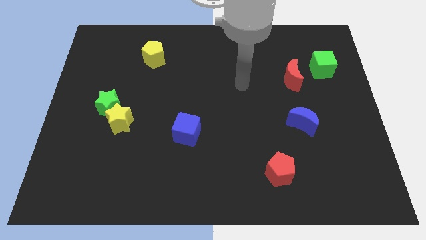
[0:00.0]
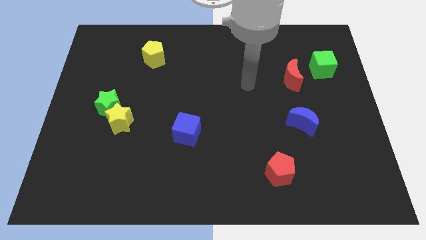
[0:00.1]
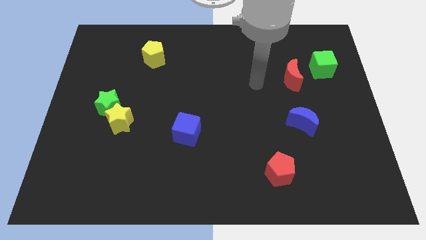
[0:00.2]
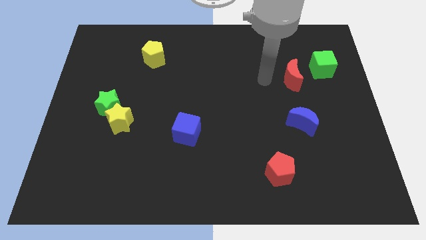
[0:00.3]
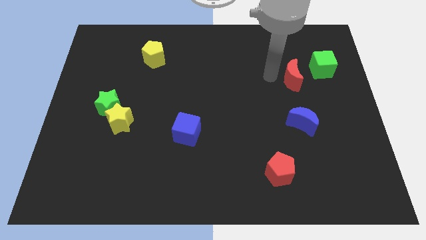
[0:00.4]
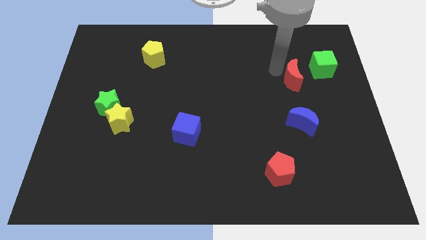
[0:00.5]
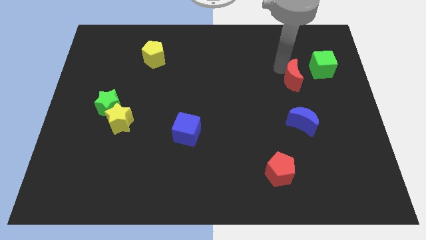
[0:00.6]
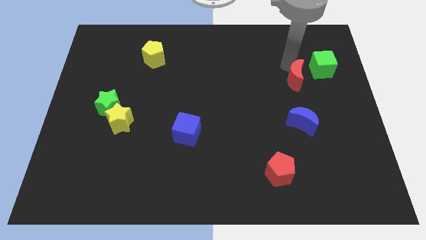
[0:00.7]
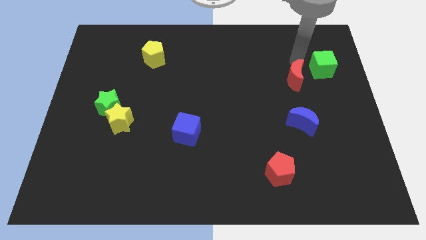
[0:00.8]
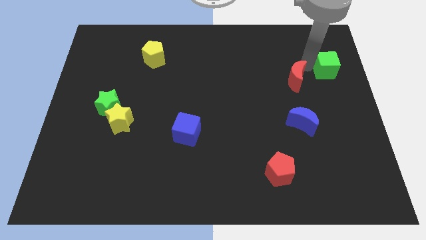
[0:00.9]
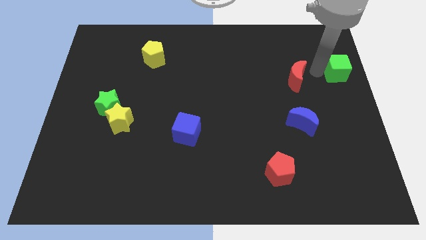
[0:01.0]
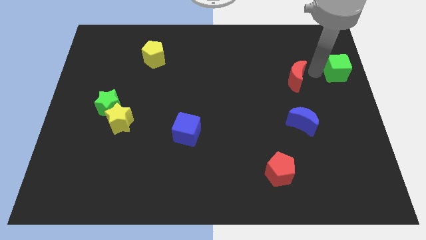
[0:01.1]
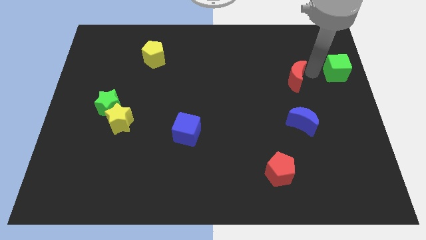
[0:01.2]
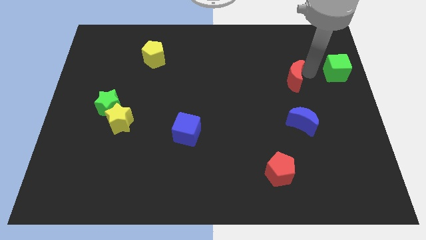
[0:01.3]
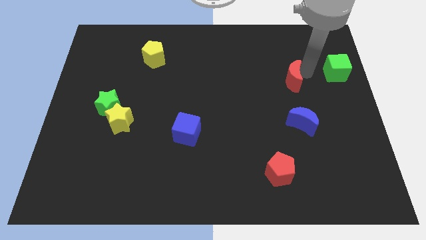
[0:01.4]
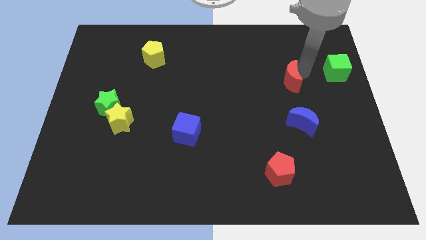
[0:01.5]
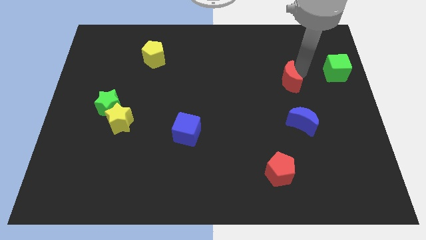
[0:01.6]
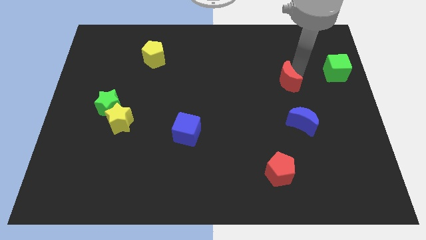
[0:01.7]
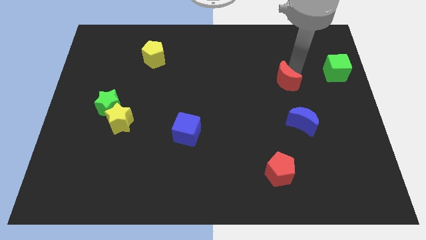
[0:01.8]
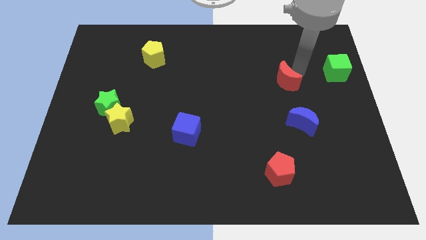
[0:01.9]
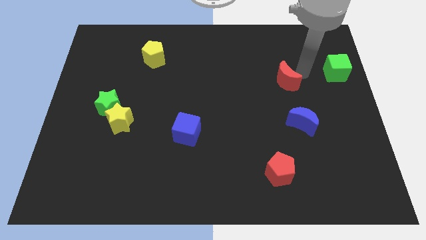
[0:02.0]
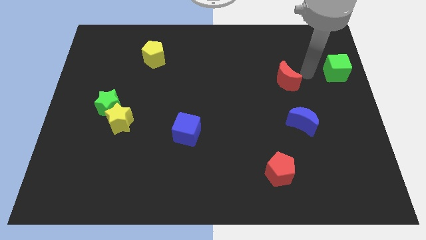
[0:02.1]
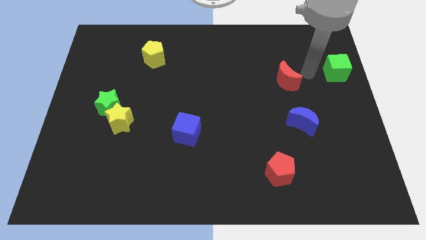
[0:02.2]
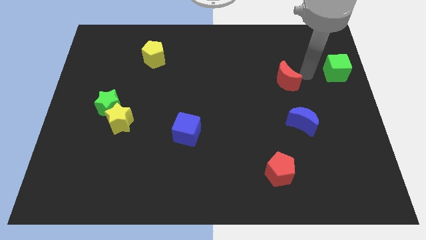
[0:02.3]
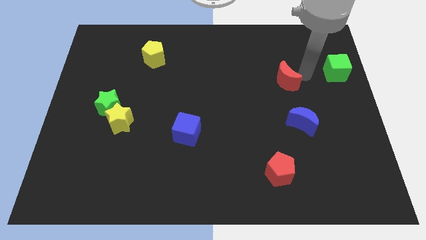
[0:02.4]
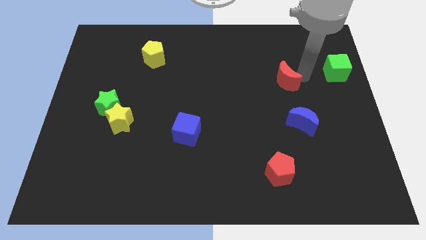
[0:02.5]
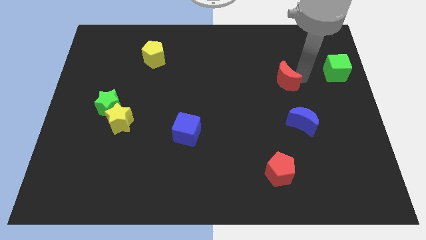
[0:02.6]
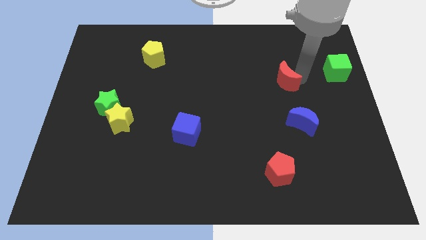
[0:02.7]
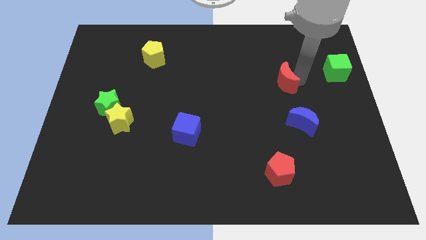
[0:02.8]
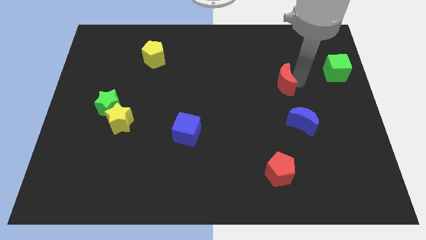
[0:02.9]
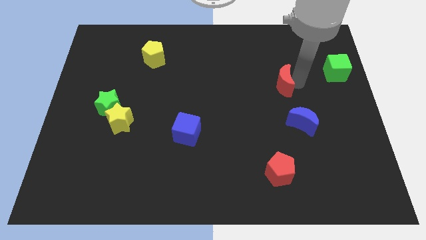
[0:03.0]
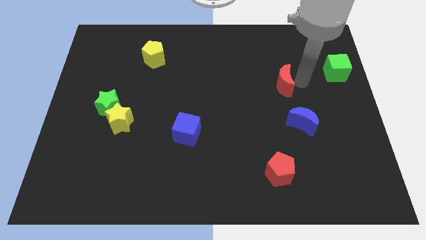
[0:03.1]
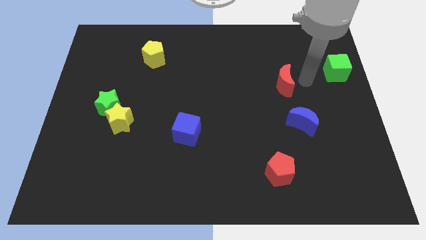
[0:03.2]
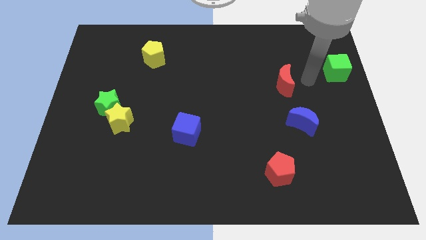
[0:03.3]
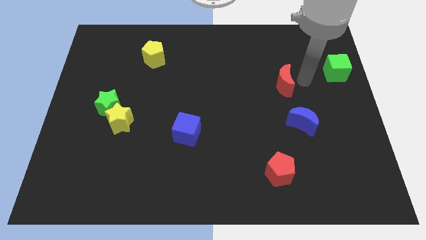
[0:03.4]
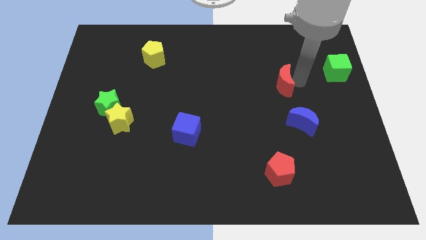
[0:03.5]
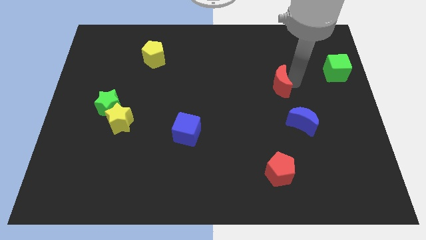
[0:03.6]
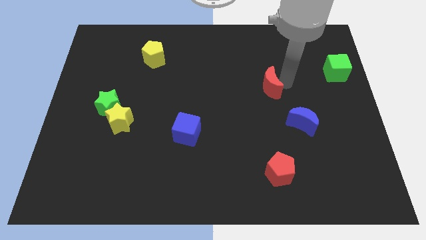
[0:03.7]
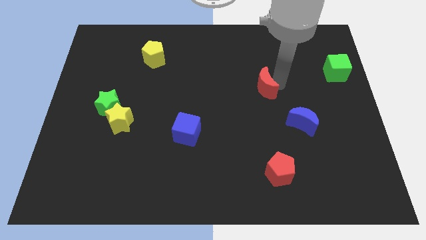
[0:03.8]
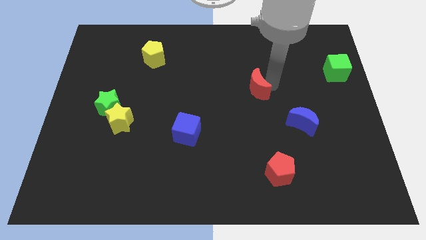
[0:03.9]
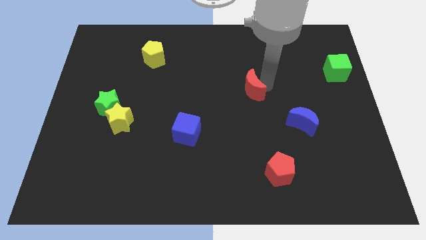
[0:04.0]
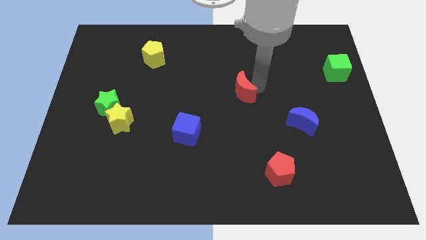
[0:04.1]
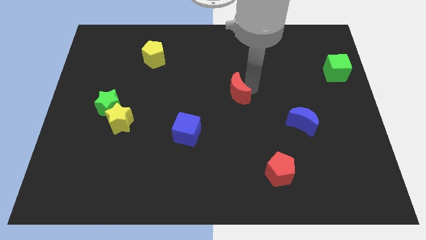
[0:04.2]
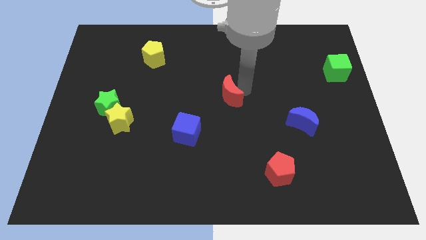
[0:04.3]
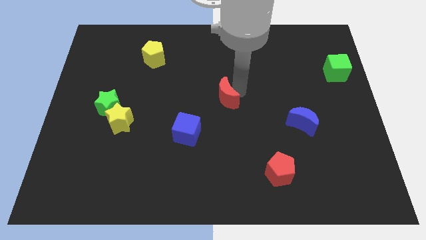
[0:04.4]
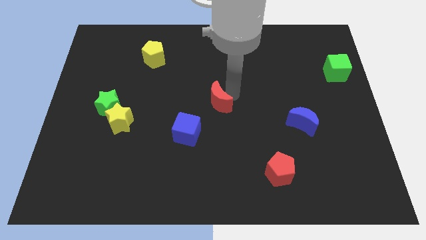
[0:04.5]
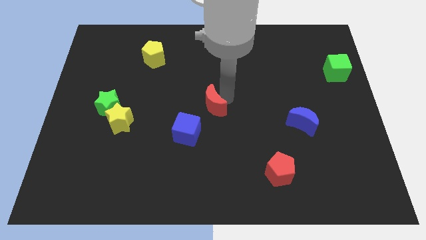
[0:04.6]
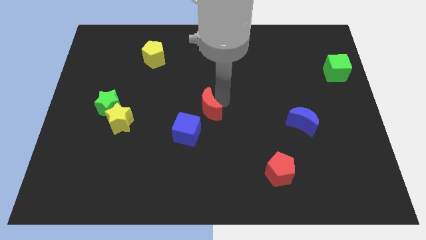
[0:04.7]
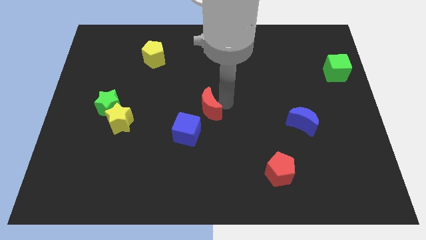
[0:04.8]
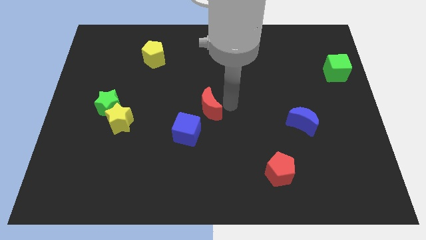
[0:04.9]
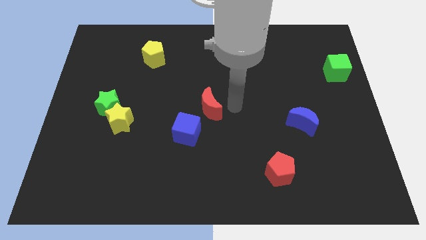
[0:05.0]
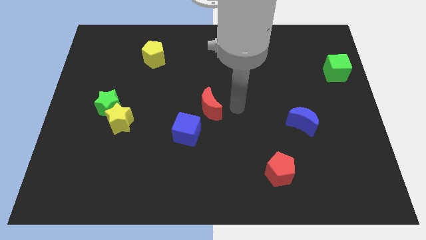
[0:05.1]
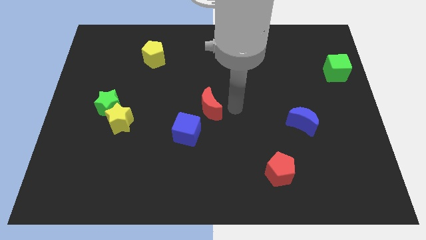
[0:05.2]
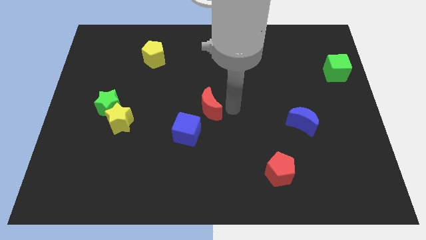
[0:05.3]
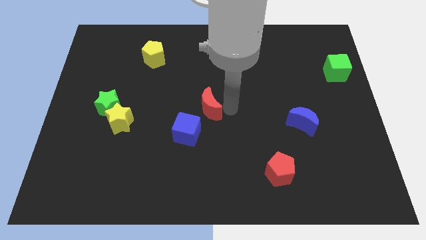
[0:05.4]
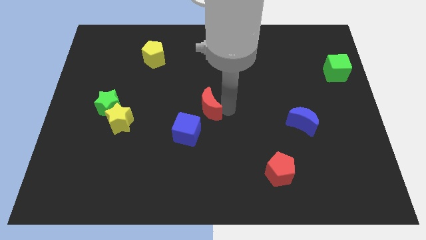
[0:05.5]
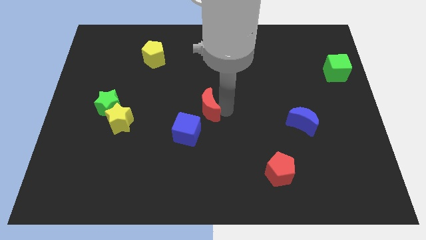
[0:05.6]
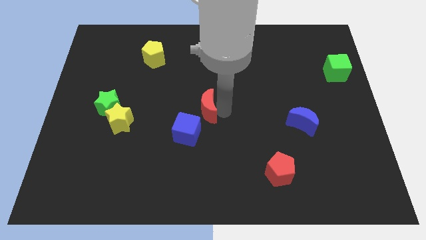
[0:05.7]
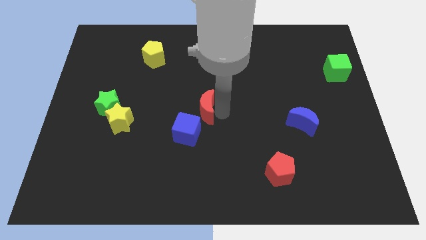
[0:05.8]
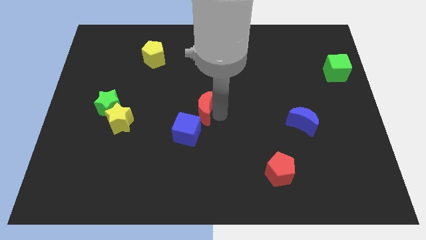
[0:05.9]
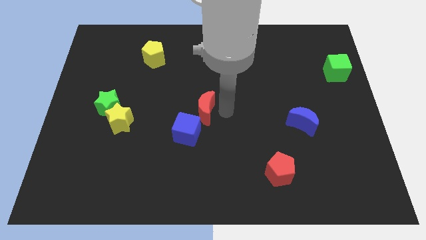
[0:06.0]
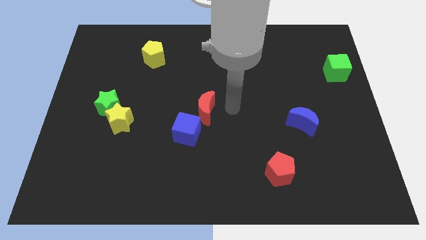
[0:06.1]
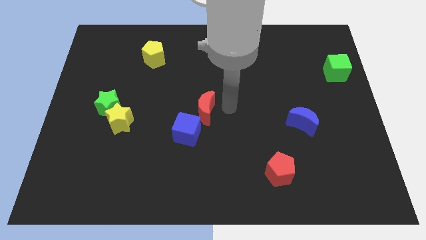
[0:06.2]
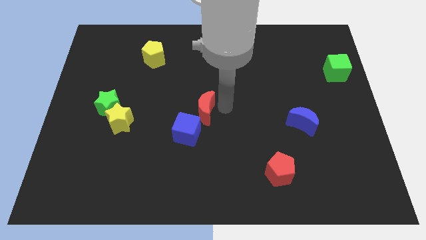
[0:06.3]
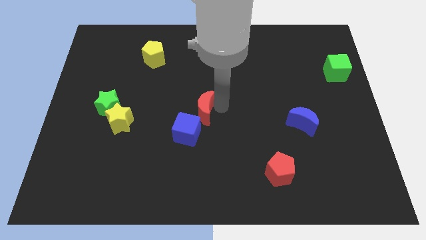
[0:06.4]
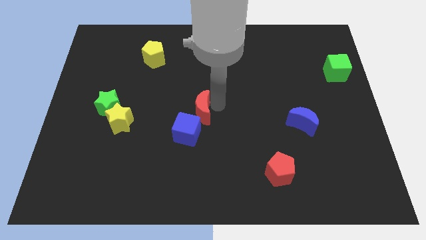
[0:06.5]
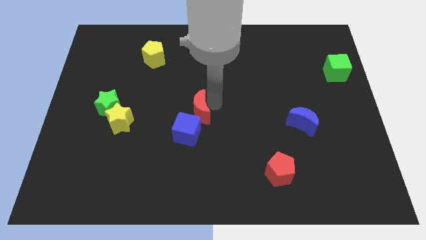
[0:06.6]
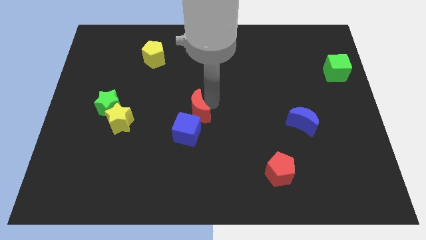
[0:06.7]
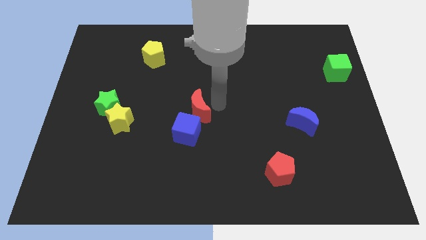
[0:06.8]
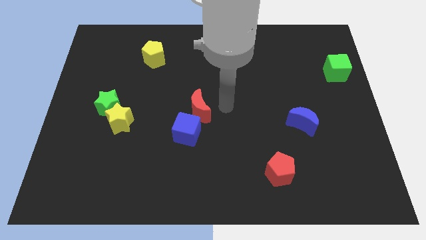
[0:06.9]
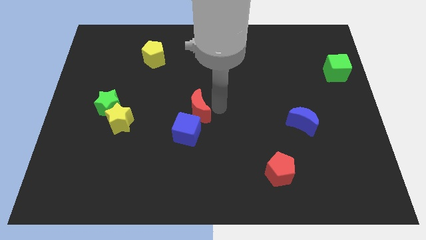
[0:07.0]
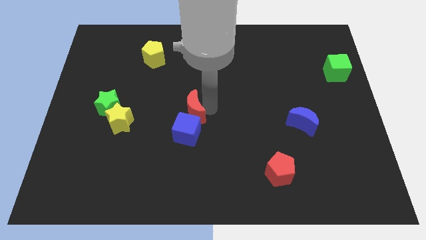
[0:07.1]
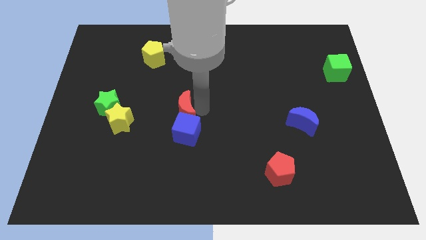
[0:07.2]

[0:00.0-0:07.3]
push the red moon to the top left side of the blue cube

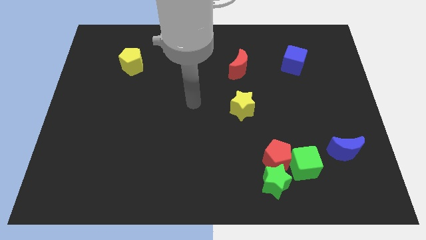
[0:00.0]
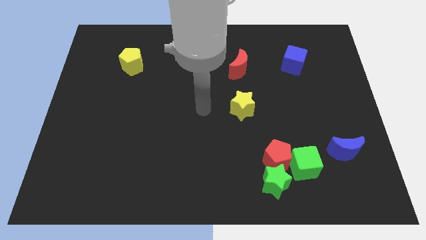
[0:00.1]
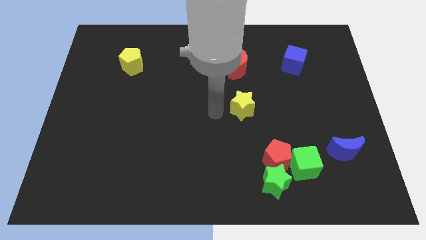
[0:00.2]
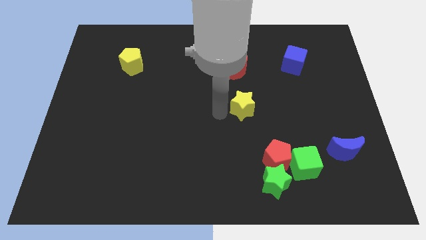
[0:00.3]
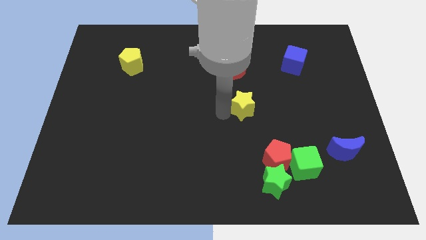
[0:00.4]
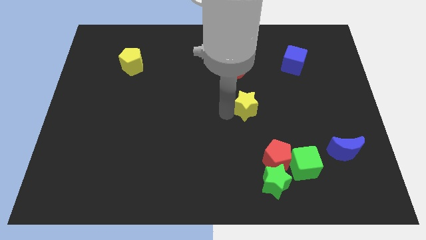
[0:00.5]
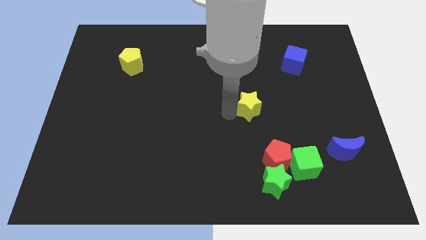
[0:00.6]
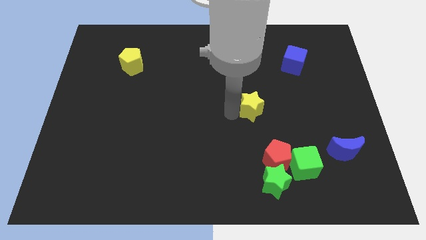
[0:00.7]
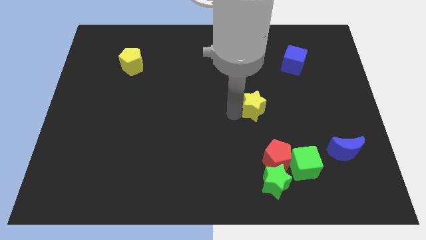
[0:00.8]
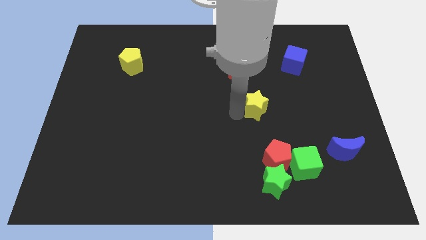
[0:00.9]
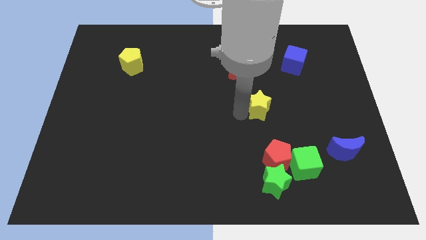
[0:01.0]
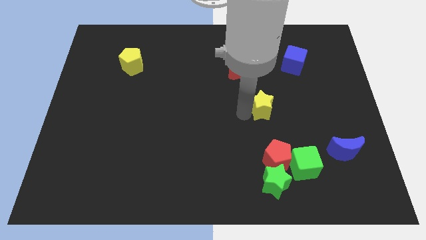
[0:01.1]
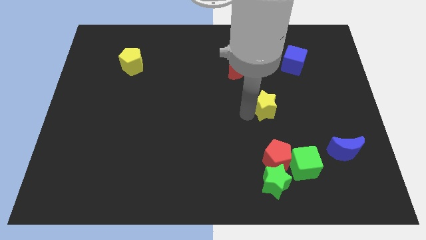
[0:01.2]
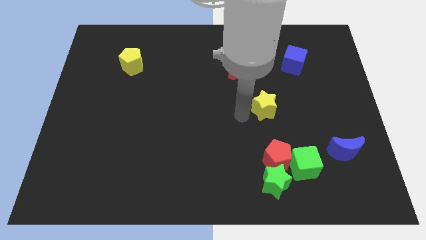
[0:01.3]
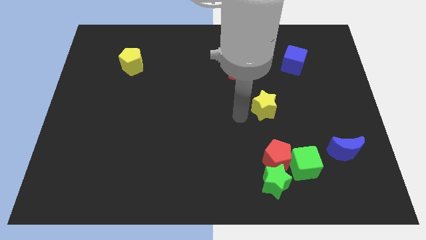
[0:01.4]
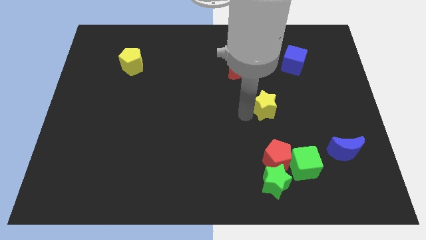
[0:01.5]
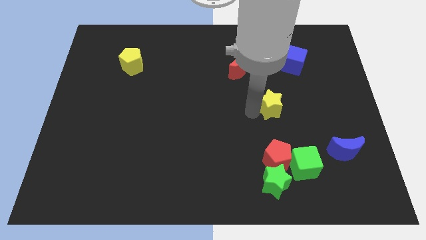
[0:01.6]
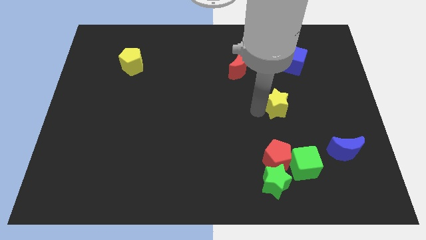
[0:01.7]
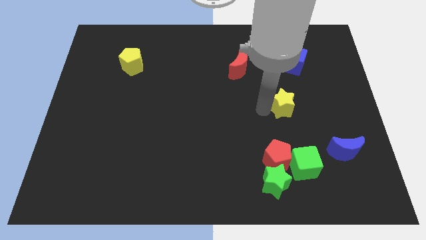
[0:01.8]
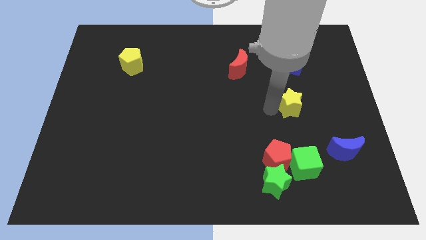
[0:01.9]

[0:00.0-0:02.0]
put the yellow star below the blue cube
